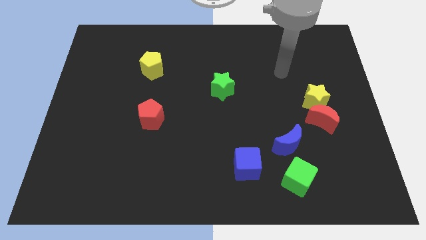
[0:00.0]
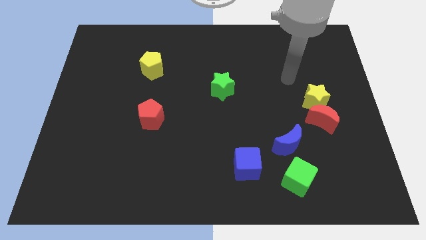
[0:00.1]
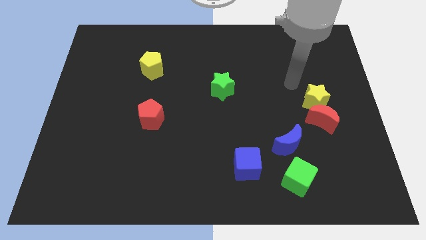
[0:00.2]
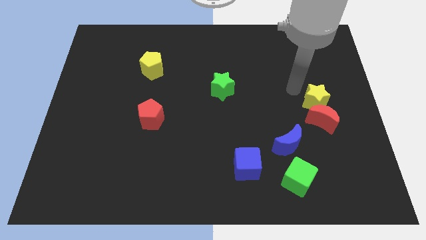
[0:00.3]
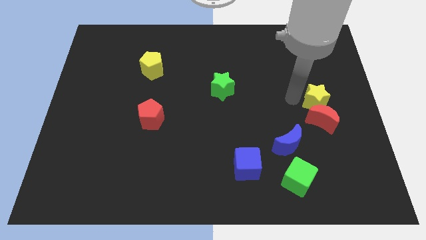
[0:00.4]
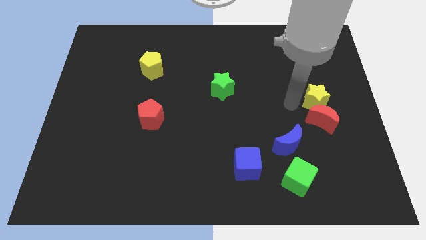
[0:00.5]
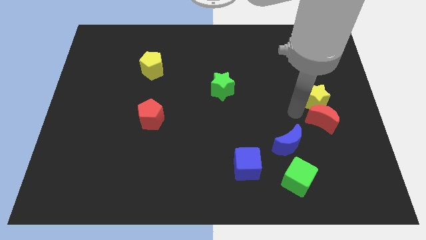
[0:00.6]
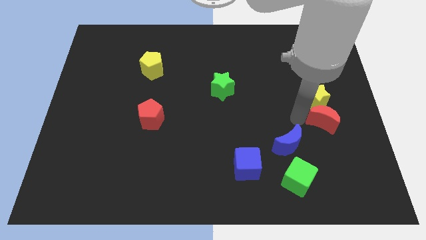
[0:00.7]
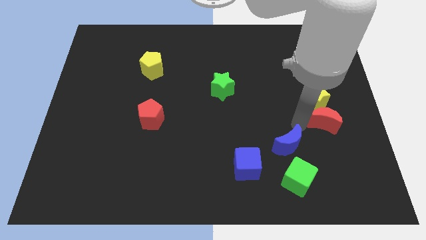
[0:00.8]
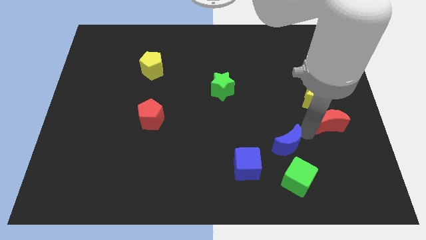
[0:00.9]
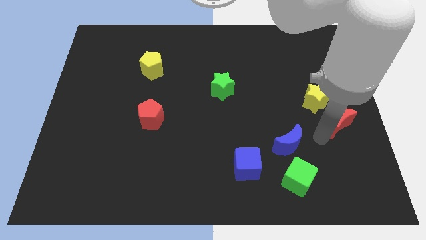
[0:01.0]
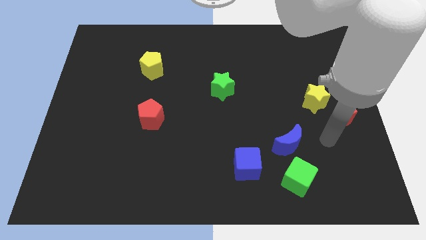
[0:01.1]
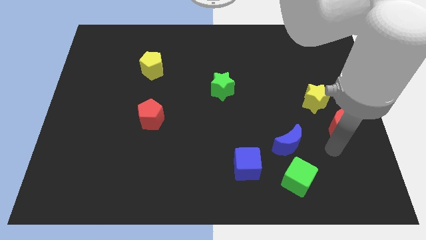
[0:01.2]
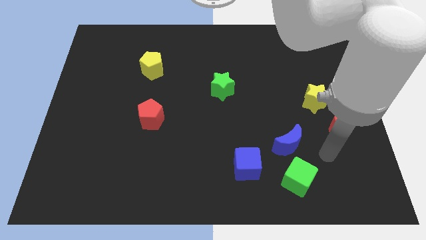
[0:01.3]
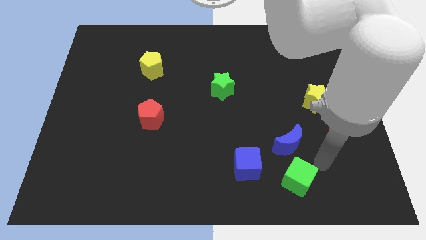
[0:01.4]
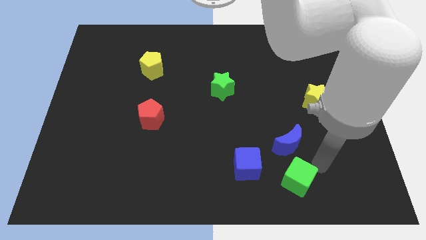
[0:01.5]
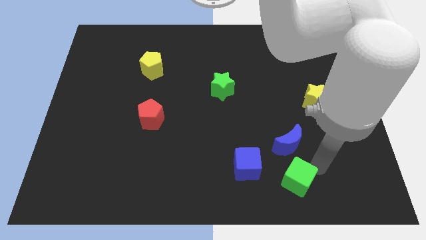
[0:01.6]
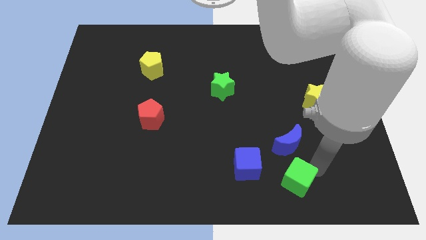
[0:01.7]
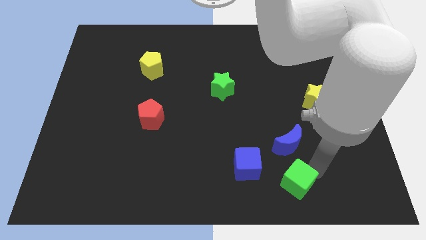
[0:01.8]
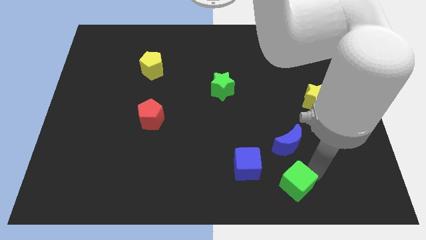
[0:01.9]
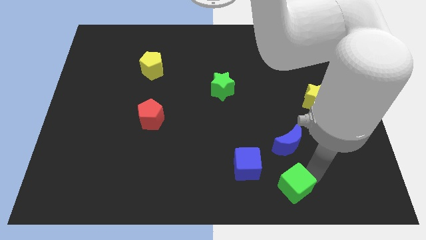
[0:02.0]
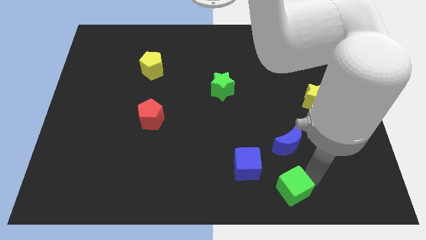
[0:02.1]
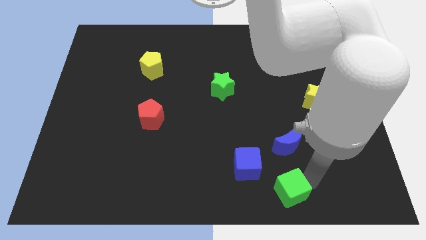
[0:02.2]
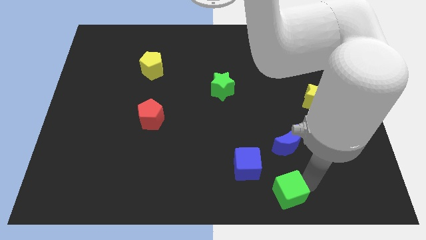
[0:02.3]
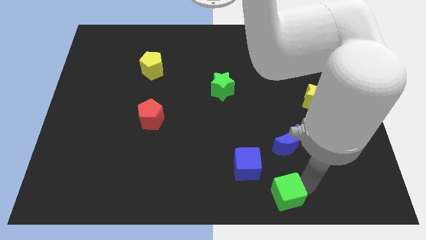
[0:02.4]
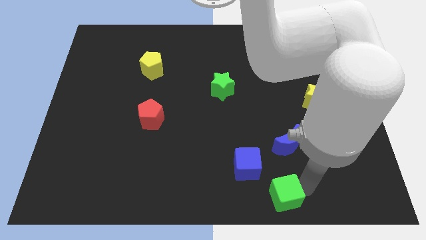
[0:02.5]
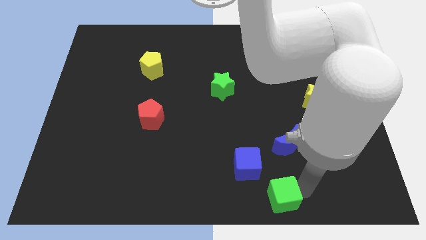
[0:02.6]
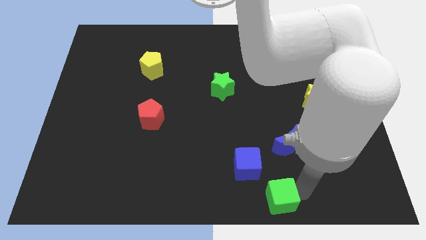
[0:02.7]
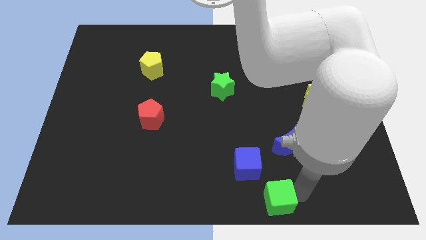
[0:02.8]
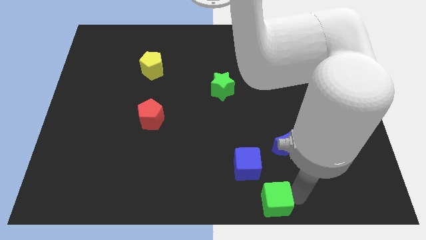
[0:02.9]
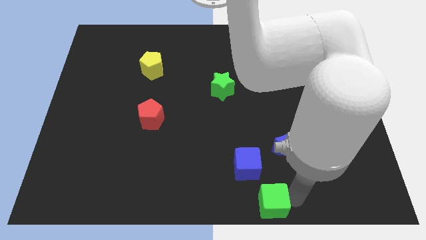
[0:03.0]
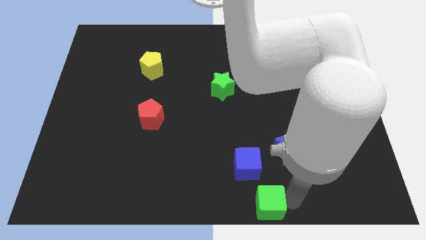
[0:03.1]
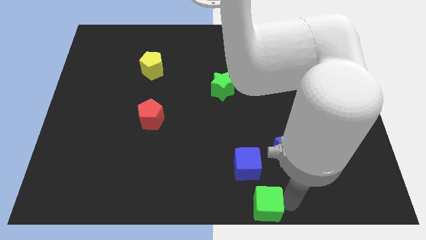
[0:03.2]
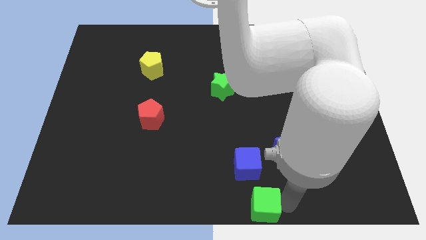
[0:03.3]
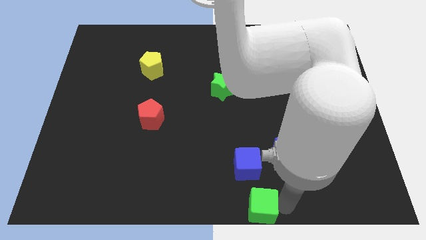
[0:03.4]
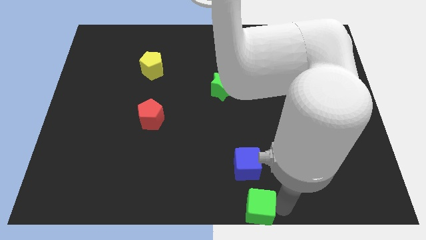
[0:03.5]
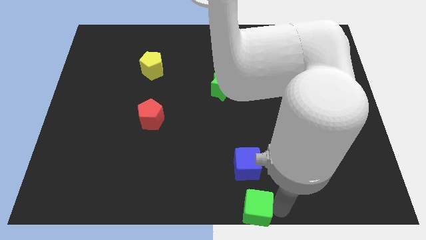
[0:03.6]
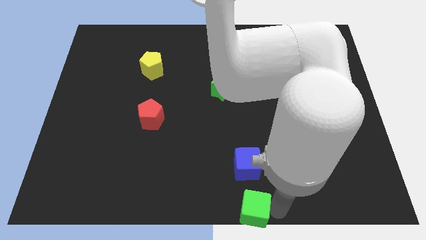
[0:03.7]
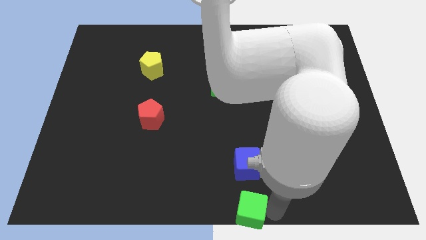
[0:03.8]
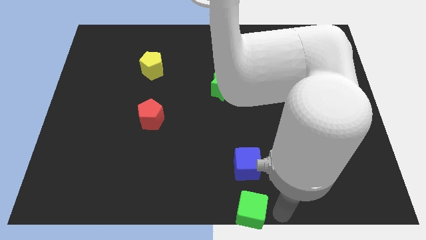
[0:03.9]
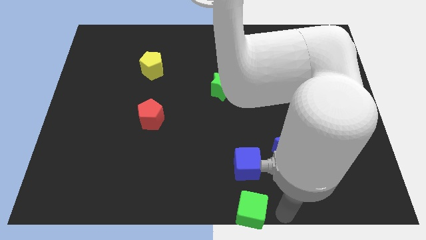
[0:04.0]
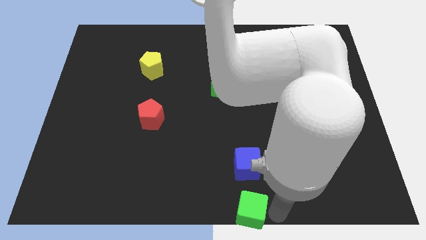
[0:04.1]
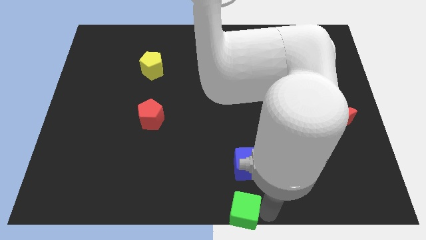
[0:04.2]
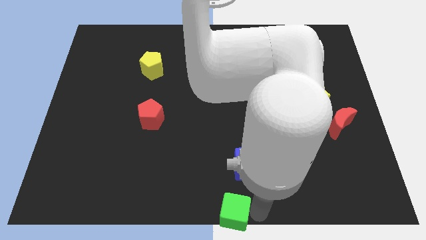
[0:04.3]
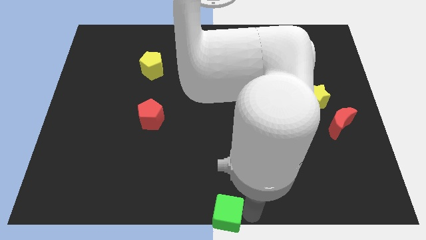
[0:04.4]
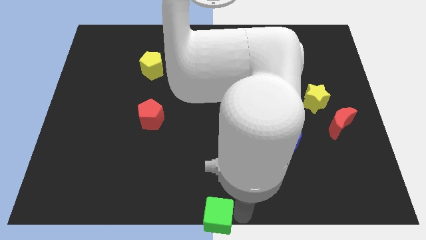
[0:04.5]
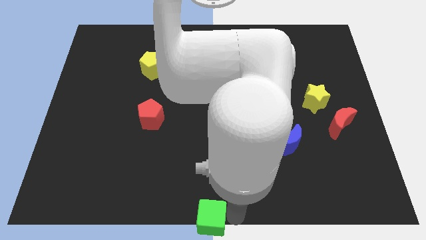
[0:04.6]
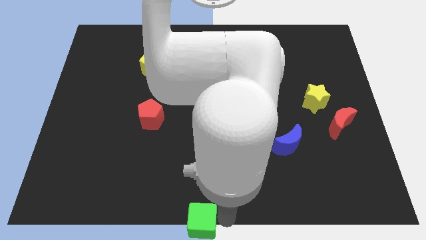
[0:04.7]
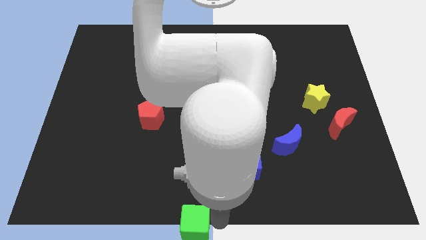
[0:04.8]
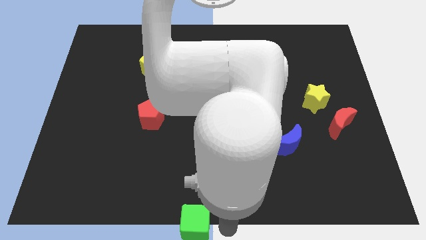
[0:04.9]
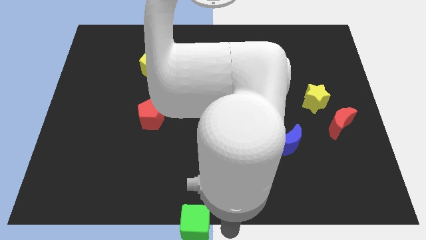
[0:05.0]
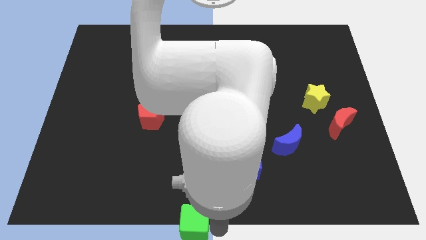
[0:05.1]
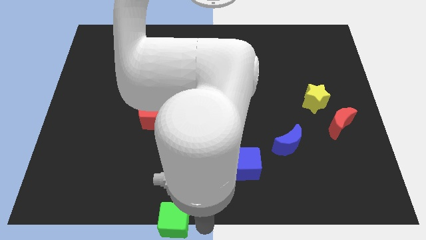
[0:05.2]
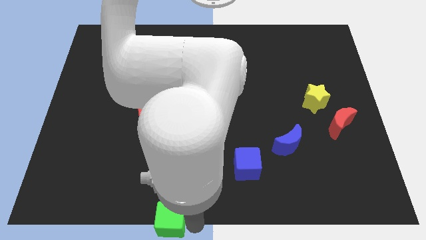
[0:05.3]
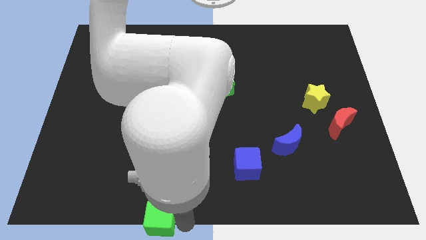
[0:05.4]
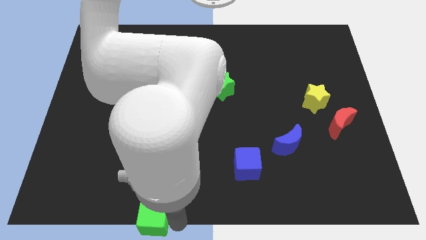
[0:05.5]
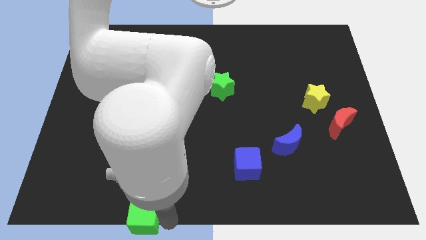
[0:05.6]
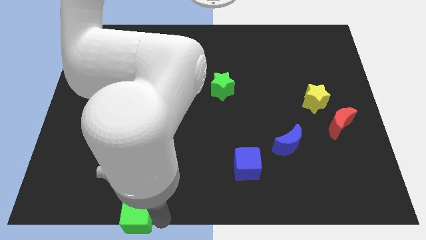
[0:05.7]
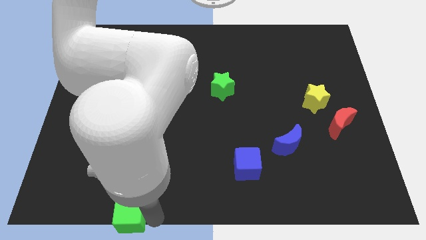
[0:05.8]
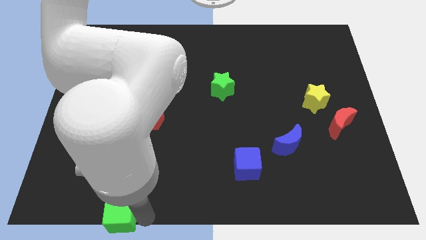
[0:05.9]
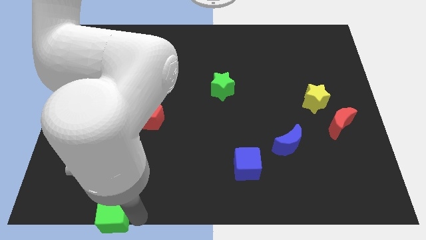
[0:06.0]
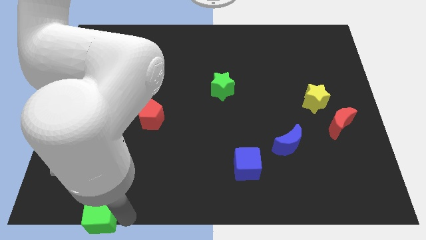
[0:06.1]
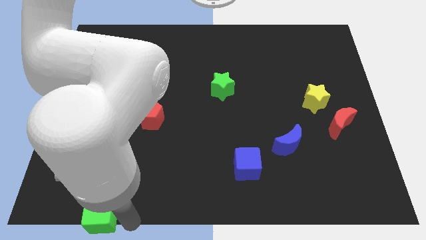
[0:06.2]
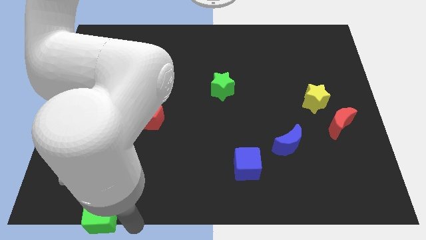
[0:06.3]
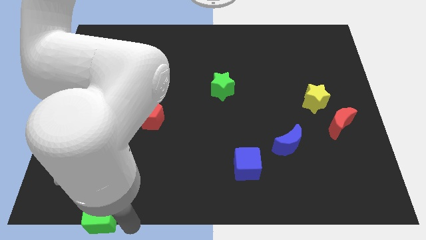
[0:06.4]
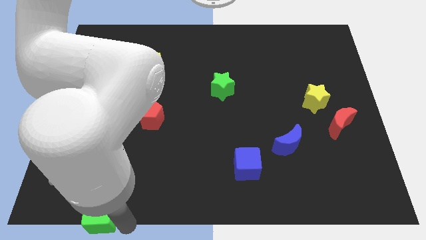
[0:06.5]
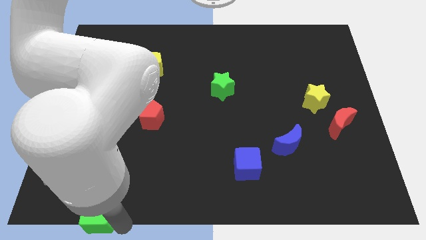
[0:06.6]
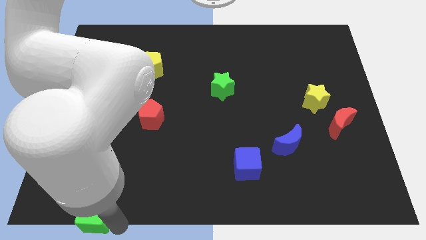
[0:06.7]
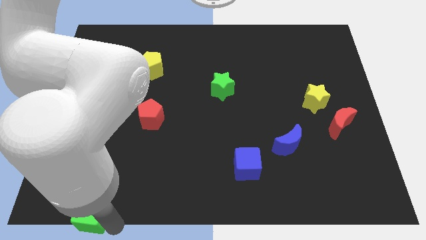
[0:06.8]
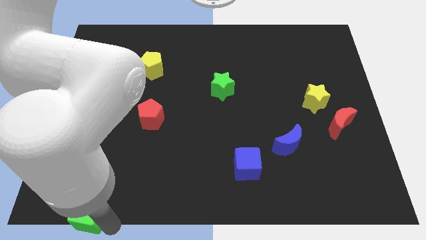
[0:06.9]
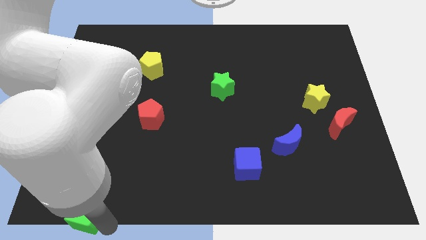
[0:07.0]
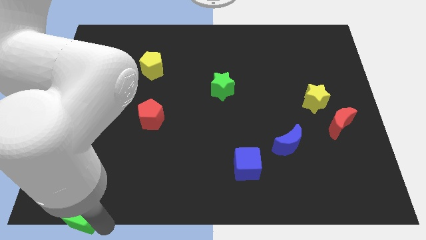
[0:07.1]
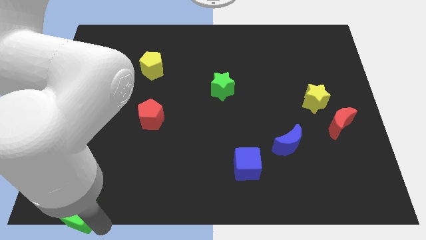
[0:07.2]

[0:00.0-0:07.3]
move the green cube to the lower left corner
